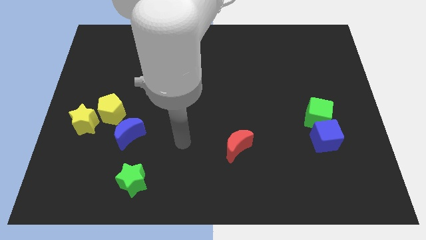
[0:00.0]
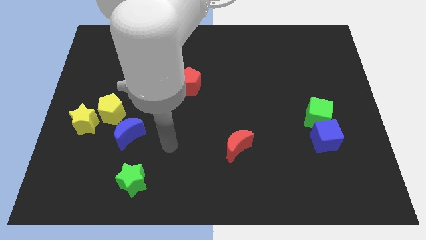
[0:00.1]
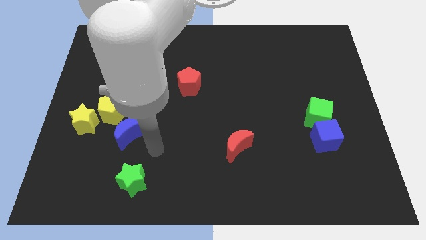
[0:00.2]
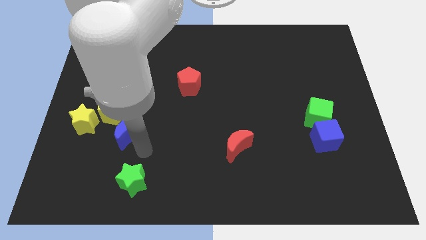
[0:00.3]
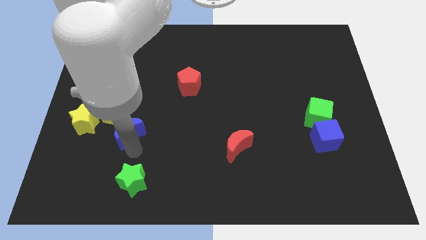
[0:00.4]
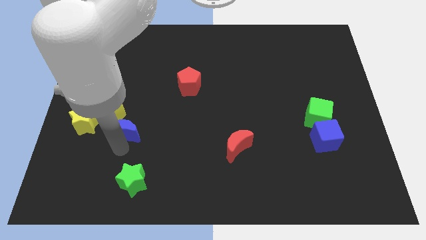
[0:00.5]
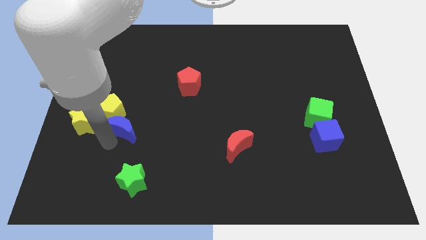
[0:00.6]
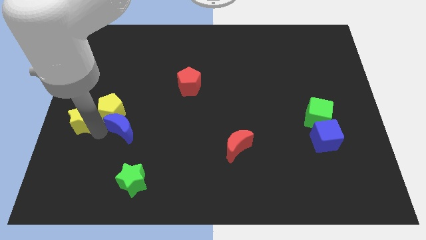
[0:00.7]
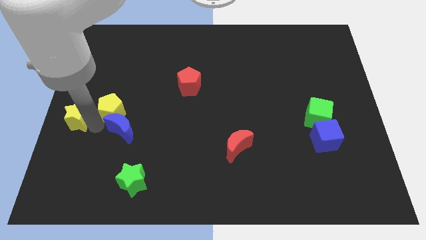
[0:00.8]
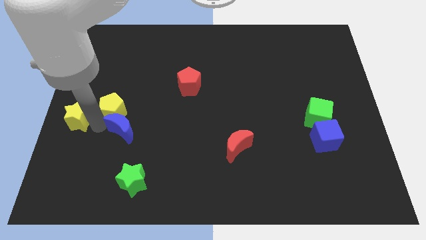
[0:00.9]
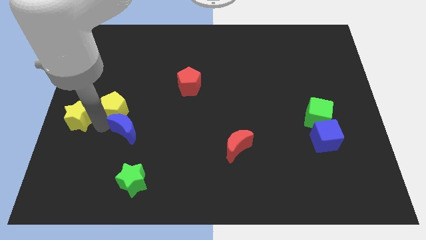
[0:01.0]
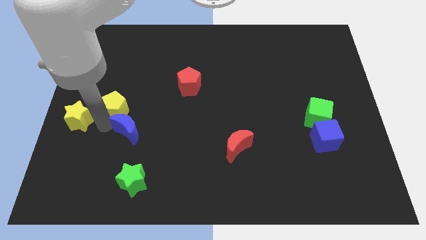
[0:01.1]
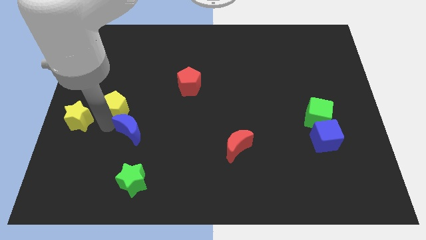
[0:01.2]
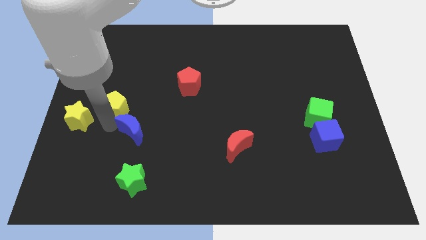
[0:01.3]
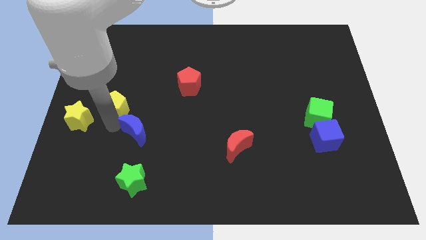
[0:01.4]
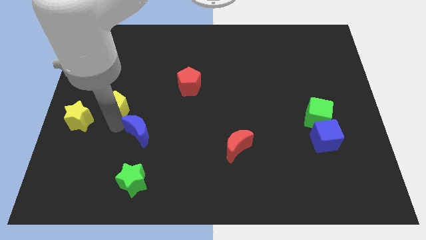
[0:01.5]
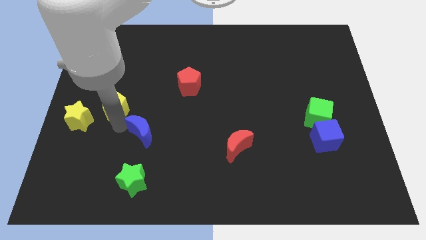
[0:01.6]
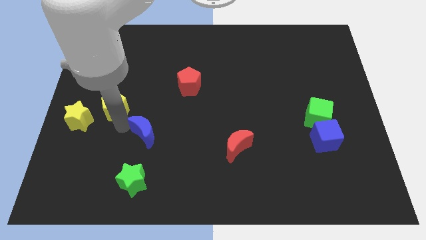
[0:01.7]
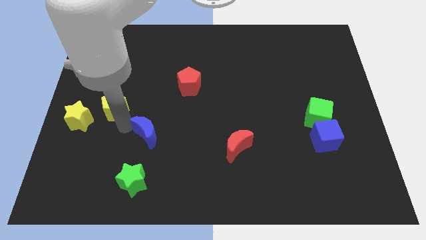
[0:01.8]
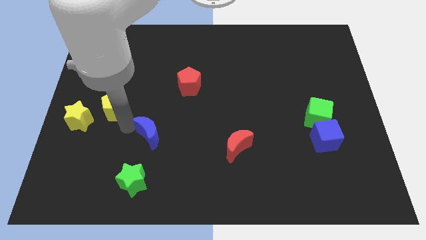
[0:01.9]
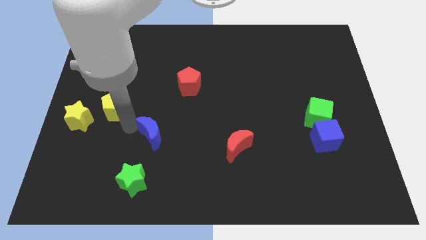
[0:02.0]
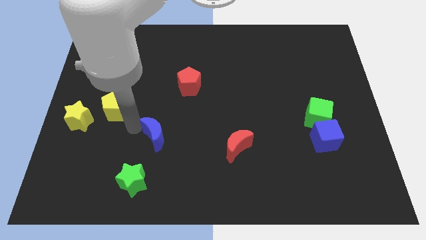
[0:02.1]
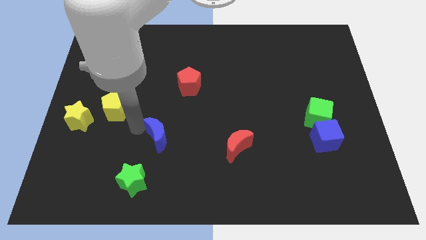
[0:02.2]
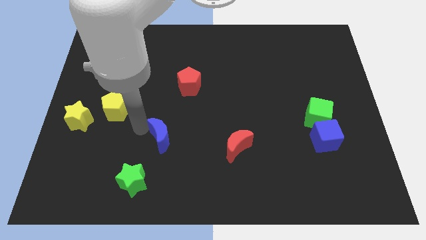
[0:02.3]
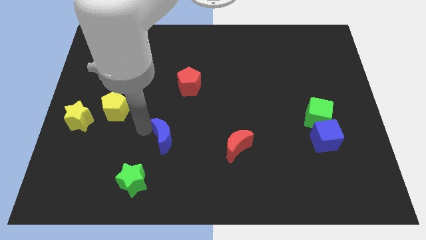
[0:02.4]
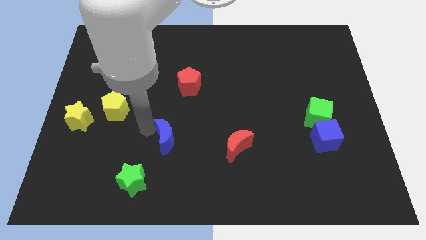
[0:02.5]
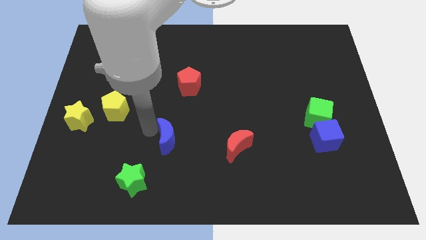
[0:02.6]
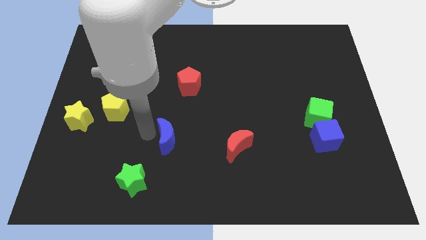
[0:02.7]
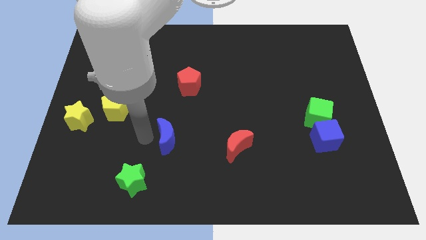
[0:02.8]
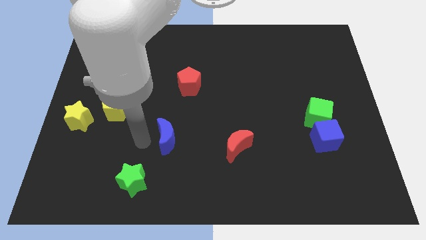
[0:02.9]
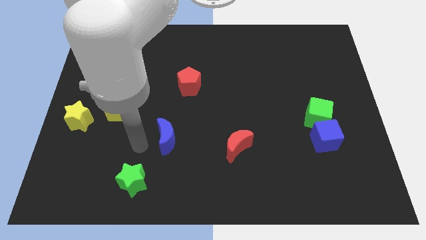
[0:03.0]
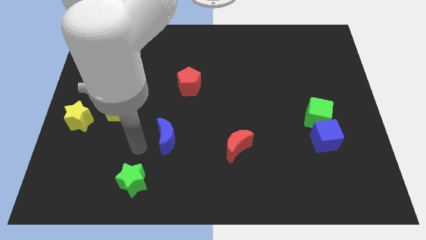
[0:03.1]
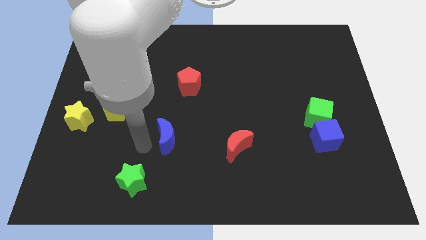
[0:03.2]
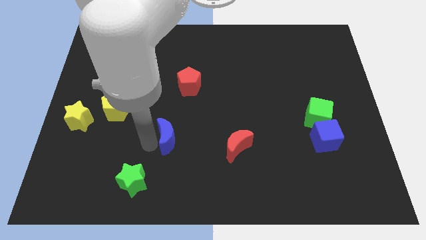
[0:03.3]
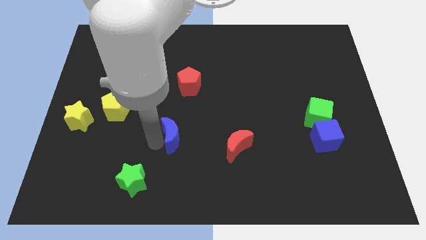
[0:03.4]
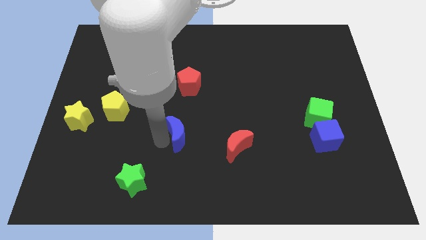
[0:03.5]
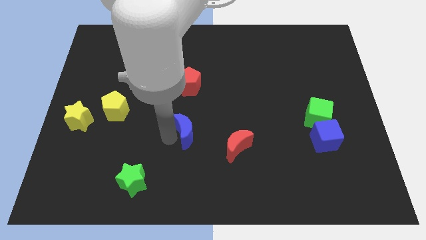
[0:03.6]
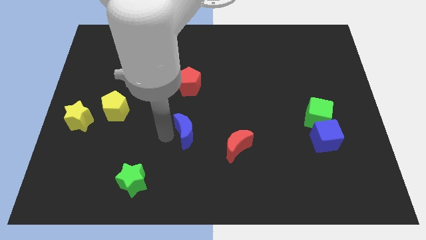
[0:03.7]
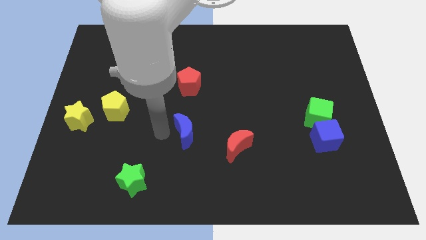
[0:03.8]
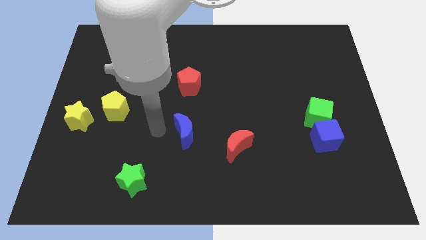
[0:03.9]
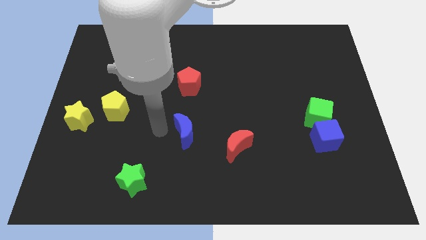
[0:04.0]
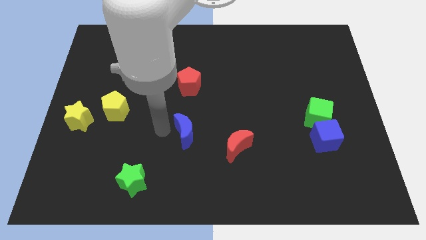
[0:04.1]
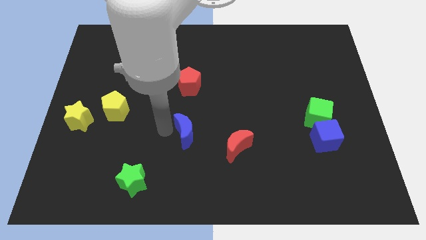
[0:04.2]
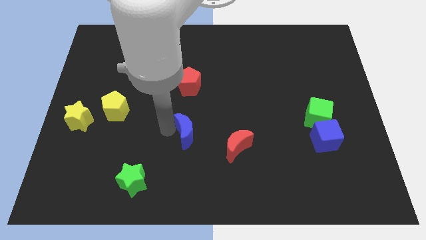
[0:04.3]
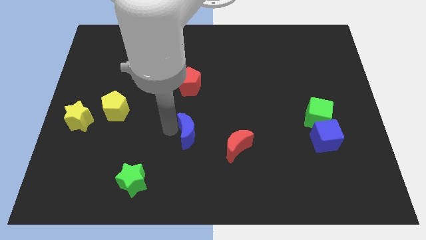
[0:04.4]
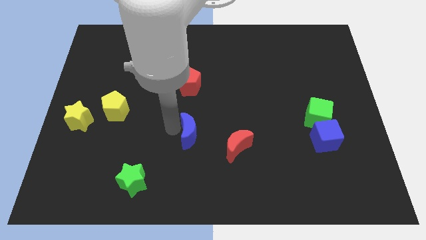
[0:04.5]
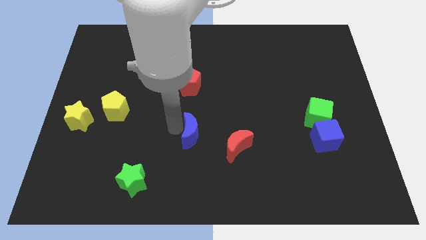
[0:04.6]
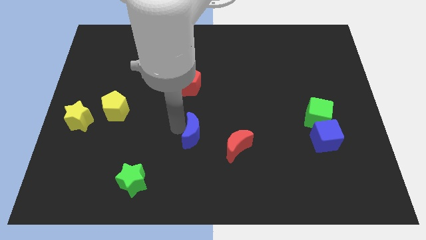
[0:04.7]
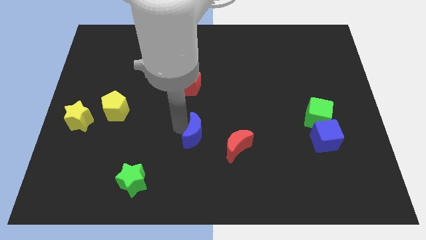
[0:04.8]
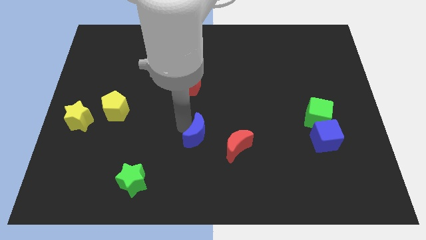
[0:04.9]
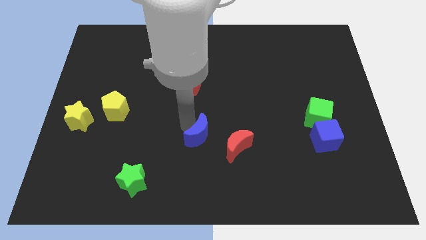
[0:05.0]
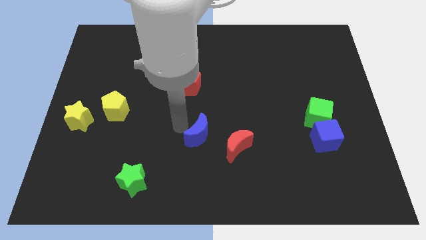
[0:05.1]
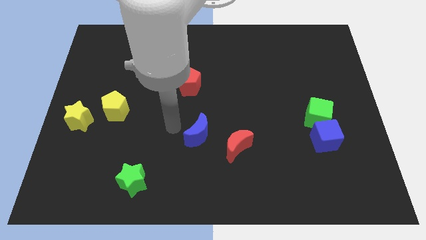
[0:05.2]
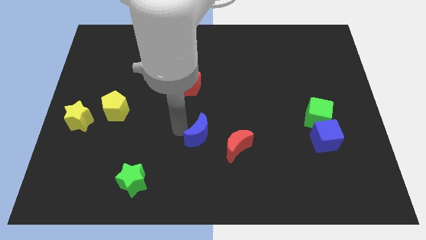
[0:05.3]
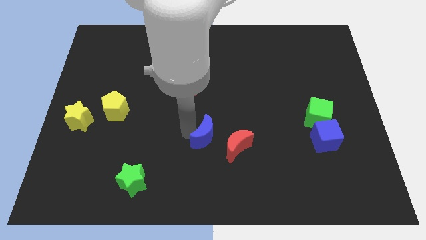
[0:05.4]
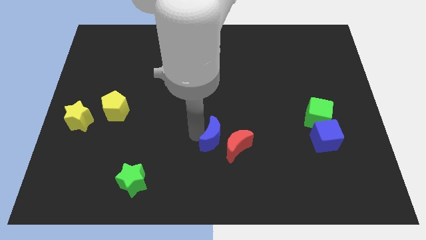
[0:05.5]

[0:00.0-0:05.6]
push the blue moon close to the red moon

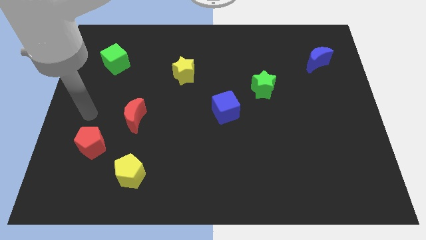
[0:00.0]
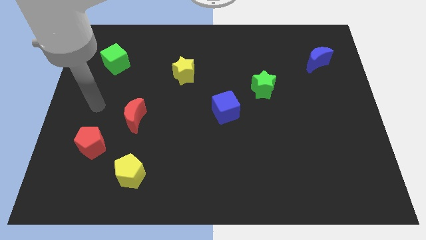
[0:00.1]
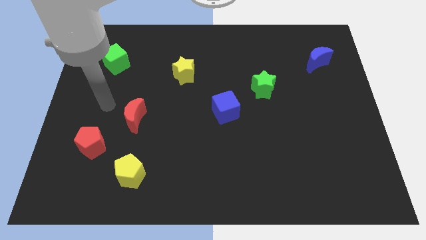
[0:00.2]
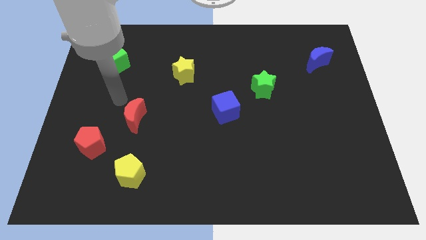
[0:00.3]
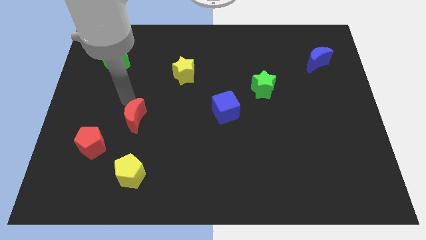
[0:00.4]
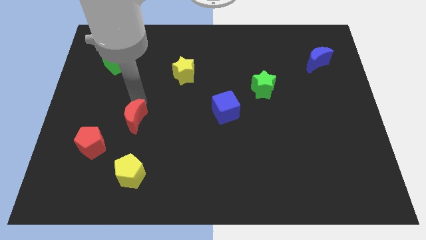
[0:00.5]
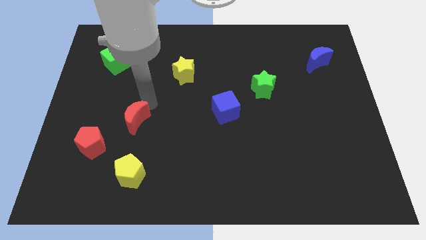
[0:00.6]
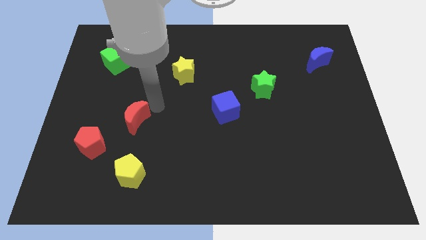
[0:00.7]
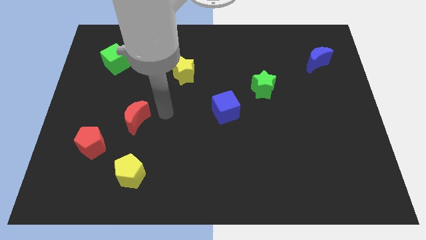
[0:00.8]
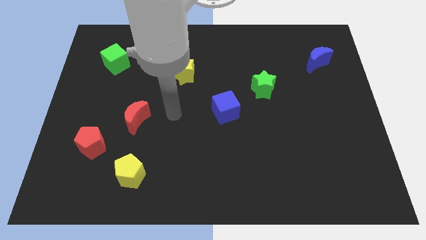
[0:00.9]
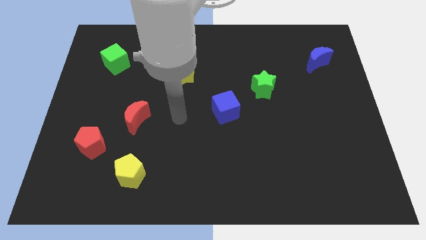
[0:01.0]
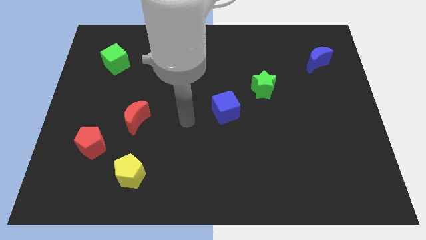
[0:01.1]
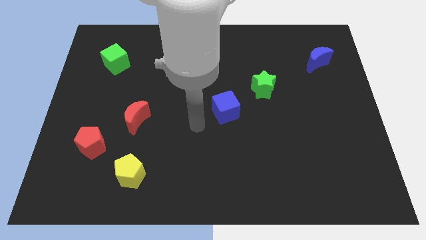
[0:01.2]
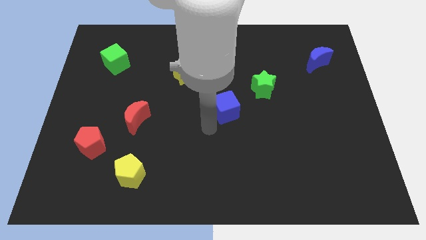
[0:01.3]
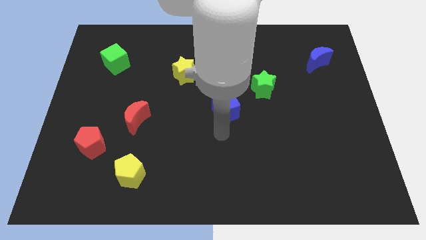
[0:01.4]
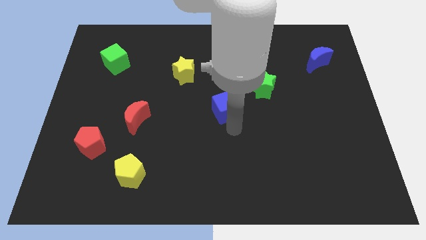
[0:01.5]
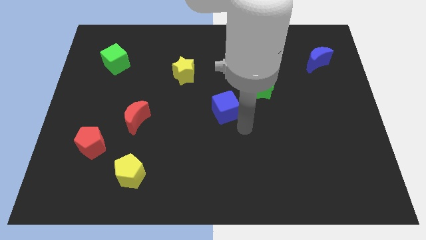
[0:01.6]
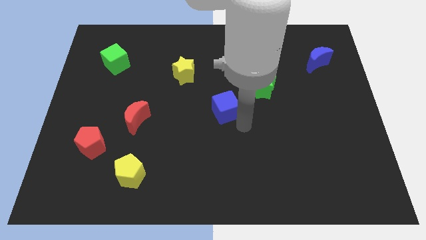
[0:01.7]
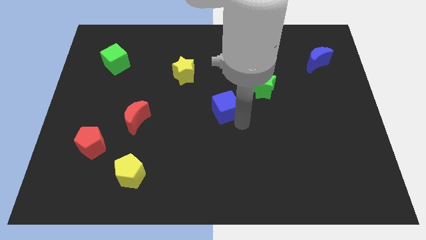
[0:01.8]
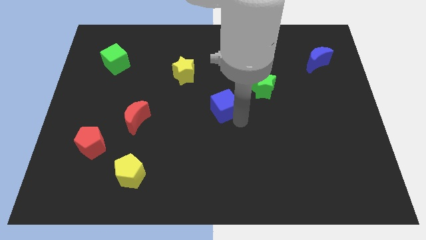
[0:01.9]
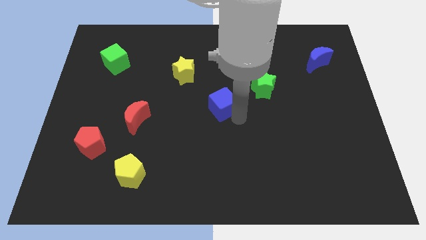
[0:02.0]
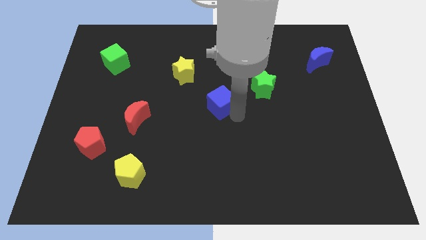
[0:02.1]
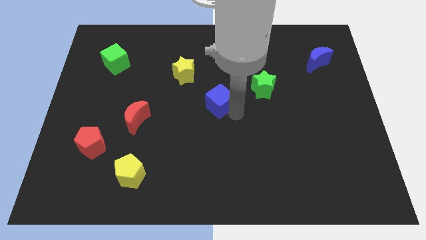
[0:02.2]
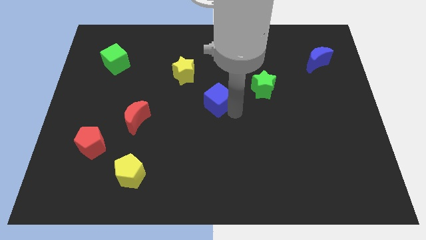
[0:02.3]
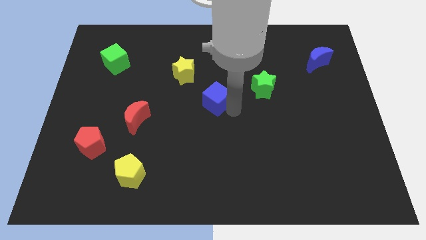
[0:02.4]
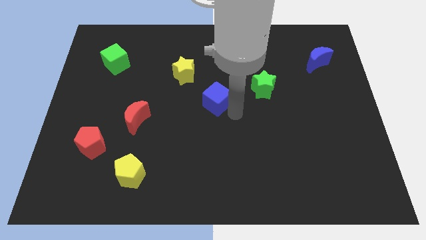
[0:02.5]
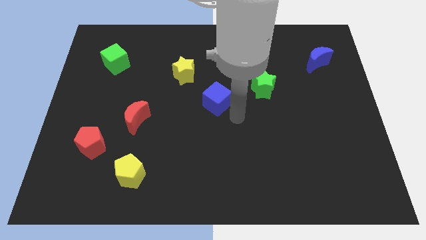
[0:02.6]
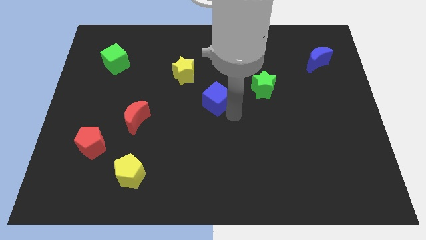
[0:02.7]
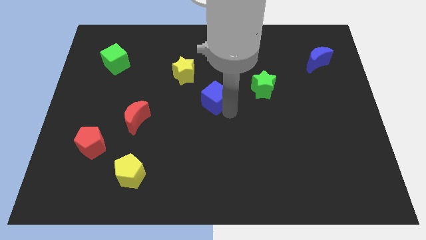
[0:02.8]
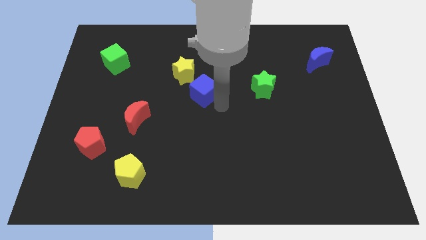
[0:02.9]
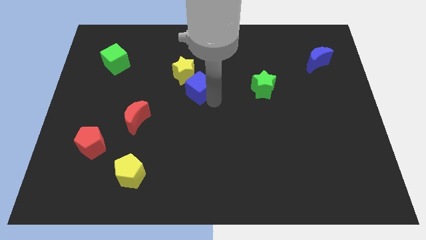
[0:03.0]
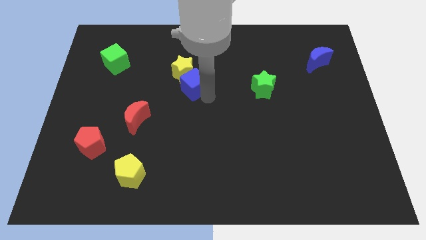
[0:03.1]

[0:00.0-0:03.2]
push the blue cube close to the yellow star
